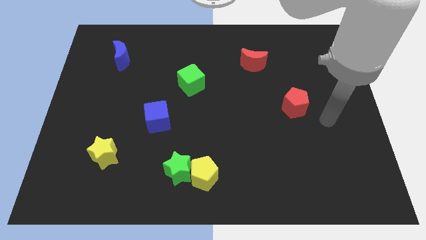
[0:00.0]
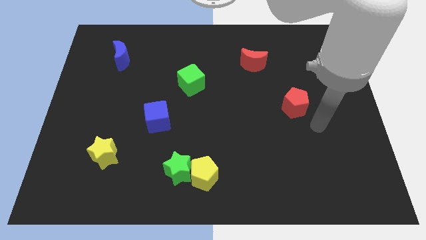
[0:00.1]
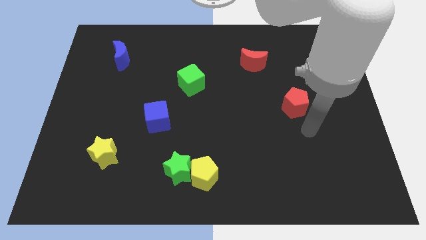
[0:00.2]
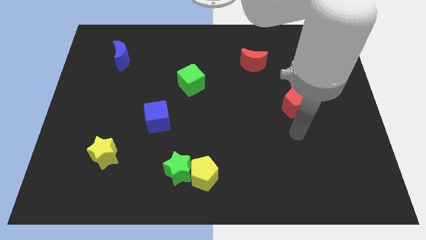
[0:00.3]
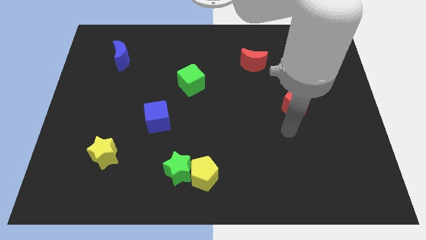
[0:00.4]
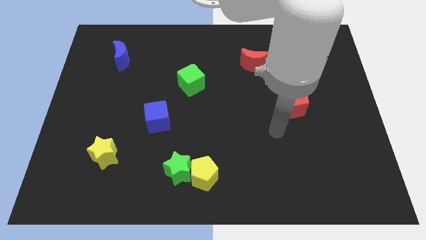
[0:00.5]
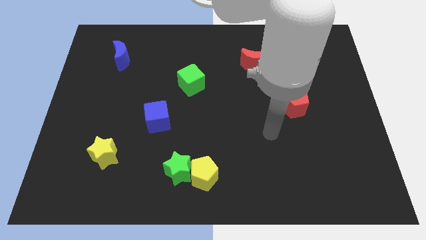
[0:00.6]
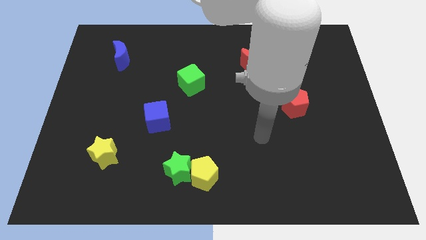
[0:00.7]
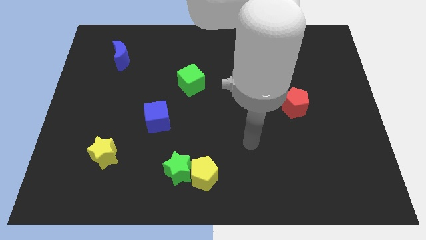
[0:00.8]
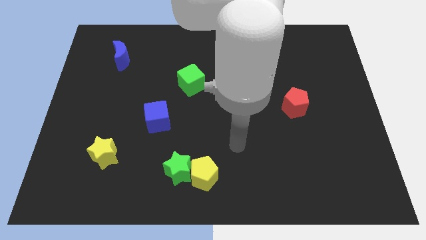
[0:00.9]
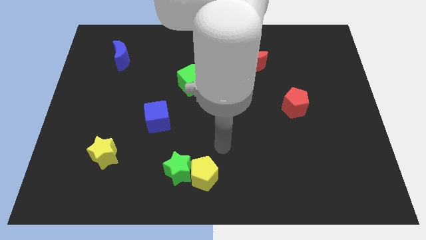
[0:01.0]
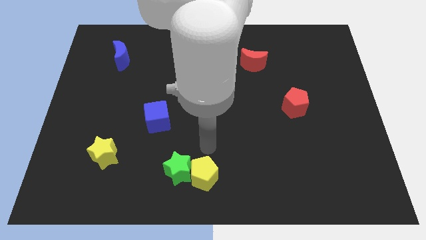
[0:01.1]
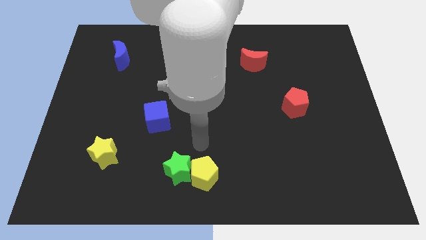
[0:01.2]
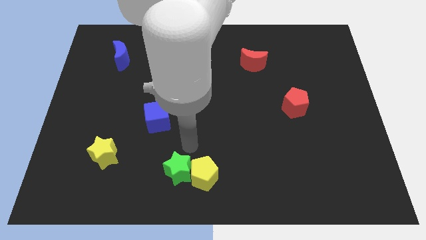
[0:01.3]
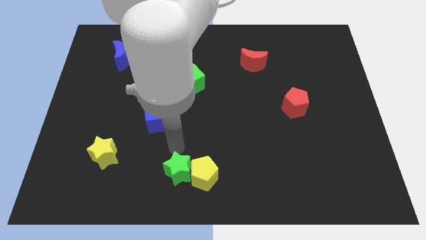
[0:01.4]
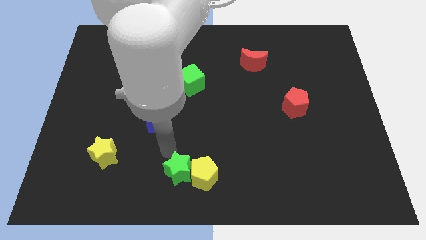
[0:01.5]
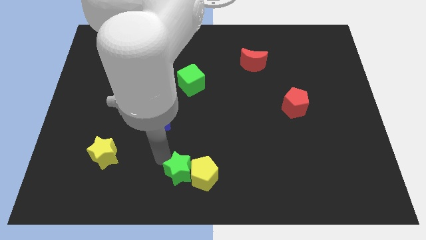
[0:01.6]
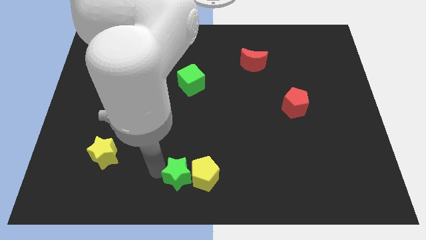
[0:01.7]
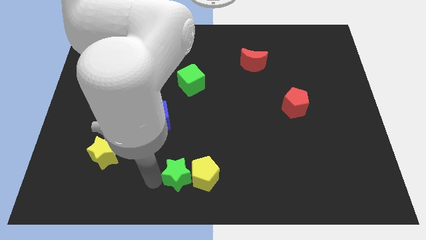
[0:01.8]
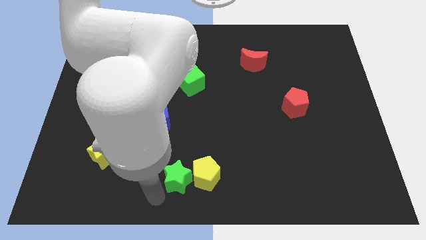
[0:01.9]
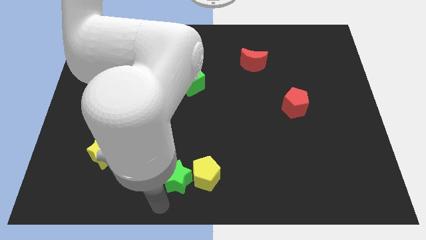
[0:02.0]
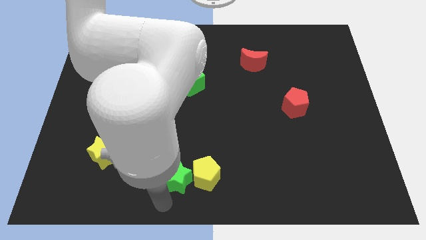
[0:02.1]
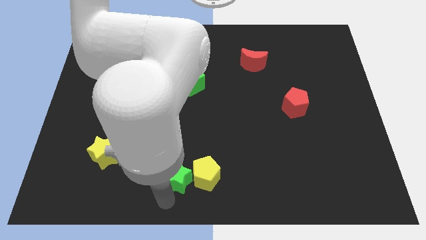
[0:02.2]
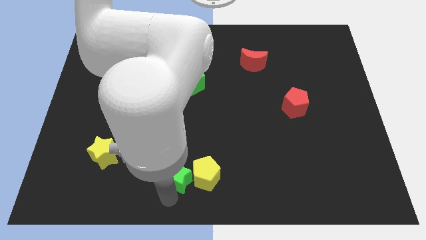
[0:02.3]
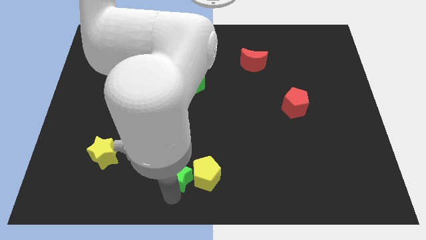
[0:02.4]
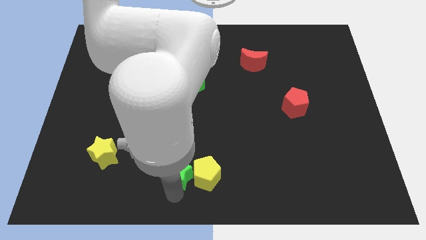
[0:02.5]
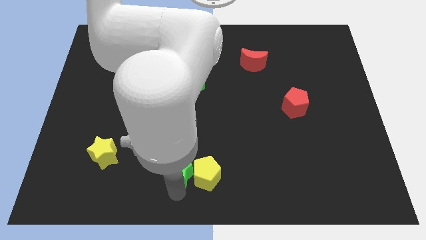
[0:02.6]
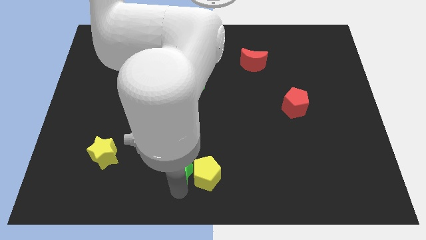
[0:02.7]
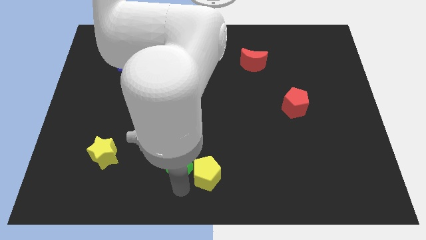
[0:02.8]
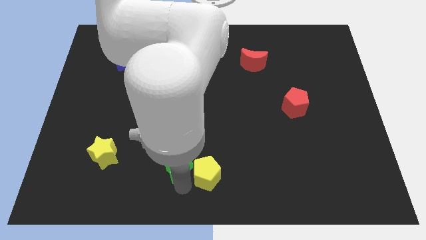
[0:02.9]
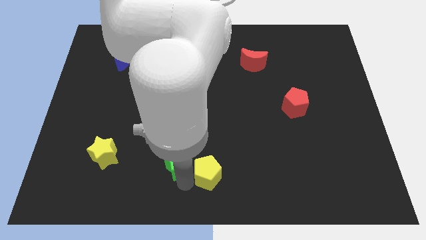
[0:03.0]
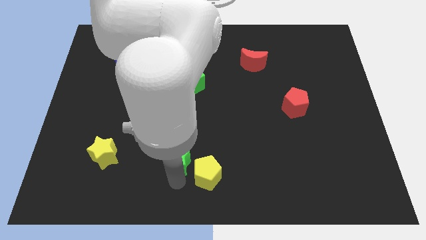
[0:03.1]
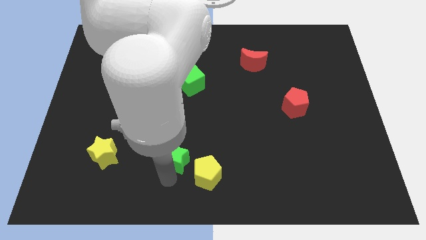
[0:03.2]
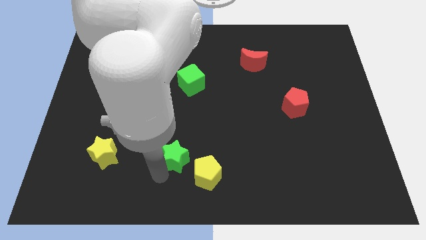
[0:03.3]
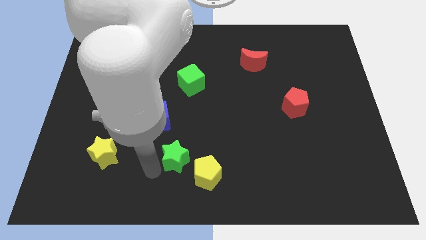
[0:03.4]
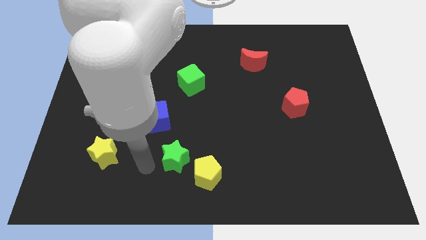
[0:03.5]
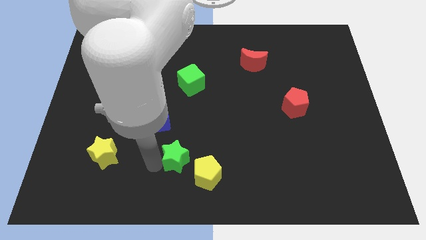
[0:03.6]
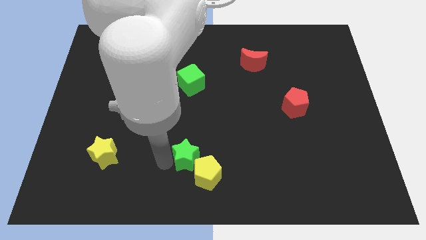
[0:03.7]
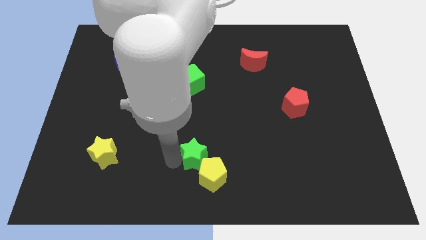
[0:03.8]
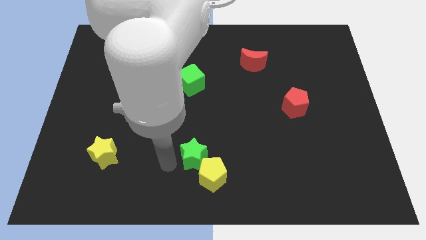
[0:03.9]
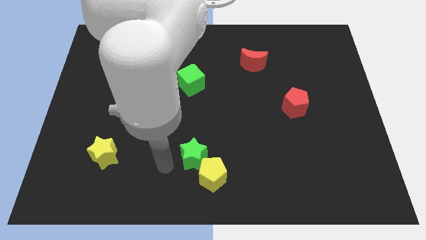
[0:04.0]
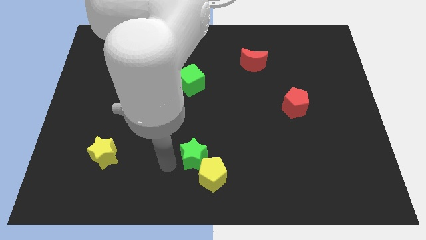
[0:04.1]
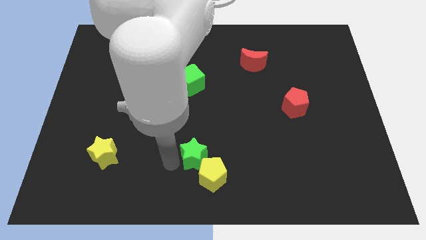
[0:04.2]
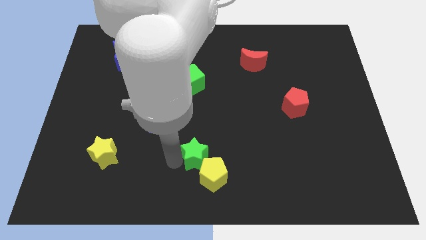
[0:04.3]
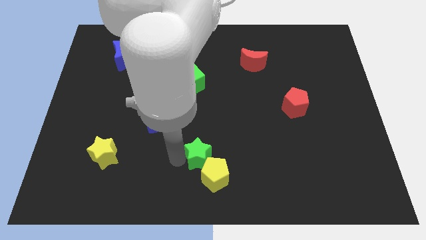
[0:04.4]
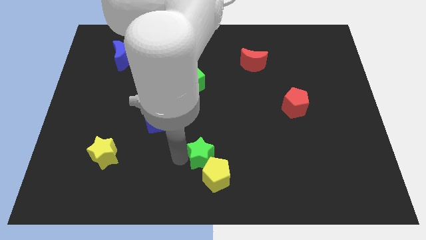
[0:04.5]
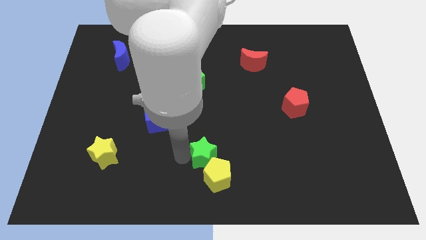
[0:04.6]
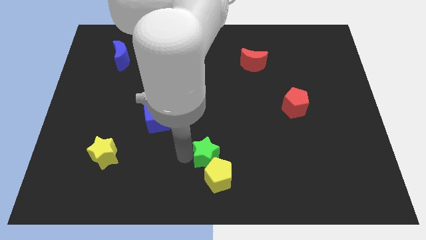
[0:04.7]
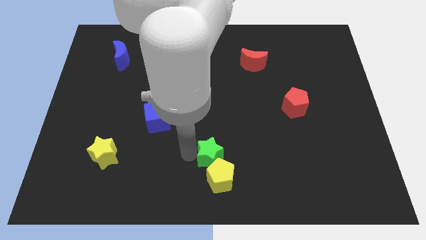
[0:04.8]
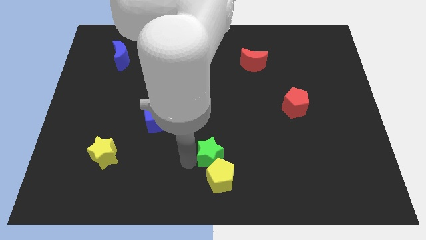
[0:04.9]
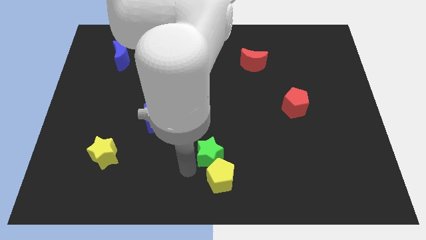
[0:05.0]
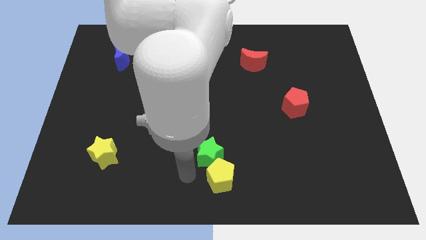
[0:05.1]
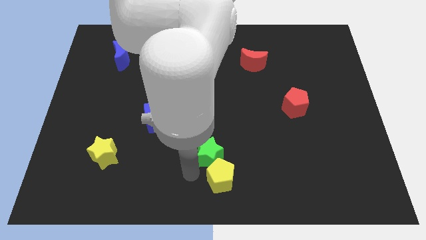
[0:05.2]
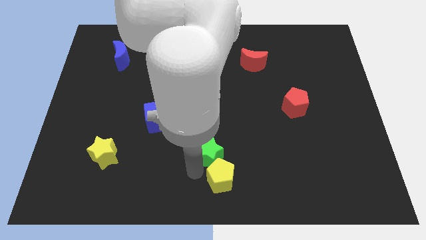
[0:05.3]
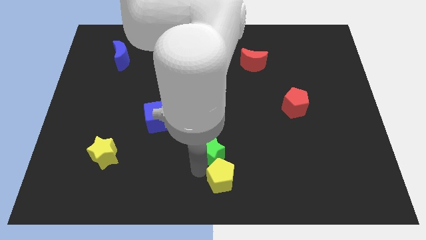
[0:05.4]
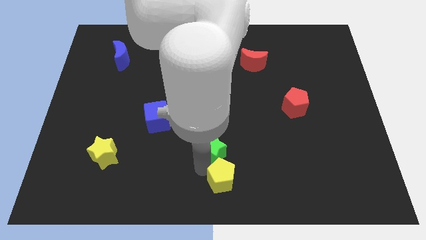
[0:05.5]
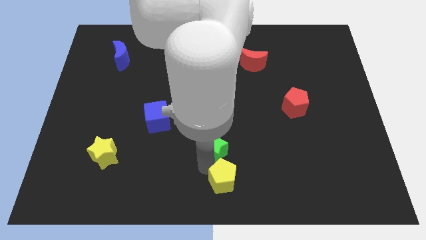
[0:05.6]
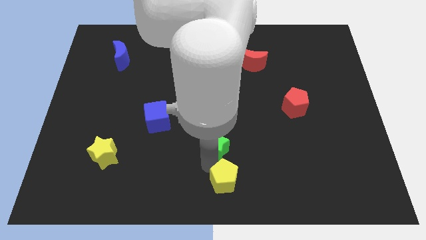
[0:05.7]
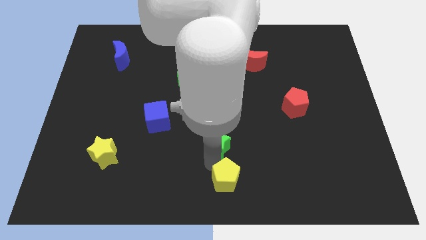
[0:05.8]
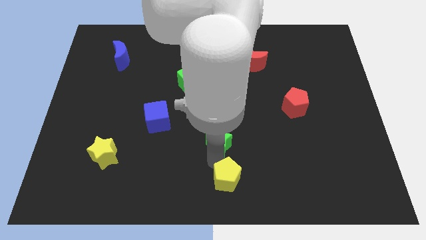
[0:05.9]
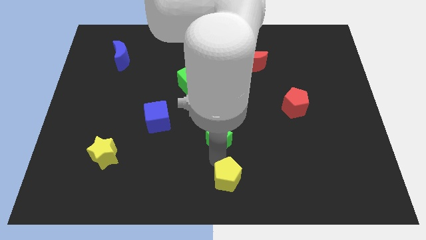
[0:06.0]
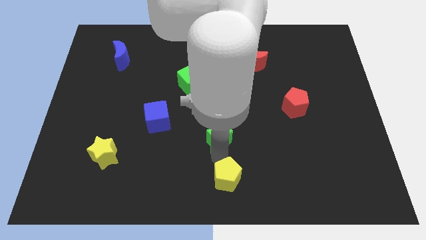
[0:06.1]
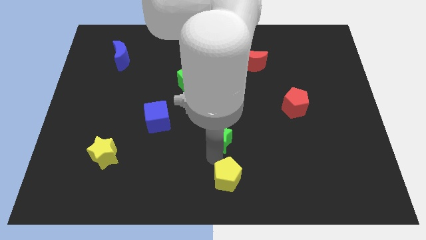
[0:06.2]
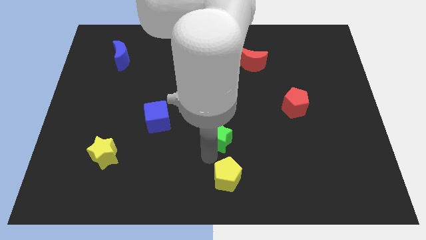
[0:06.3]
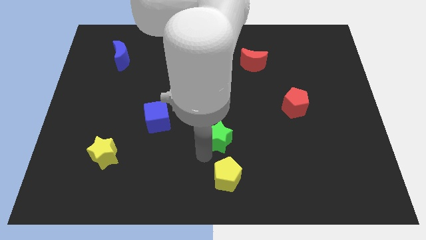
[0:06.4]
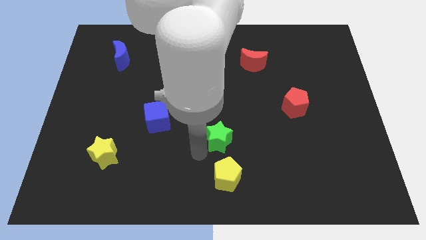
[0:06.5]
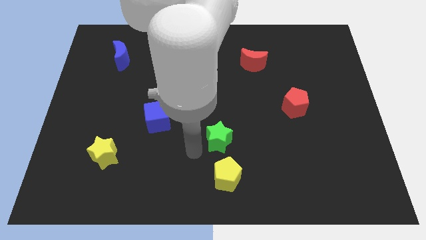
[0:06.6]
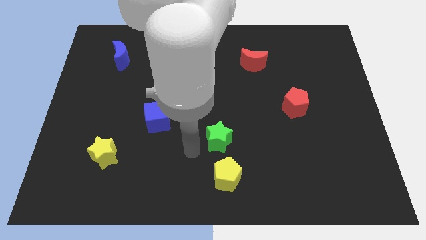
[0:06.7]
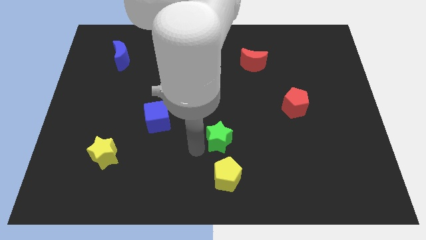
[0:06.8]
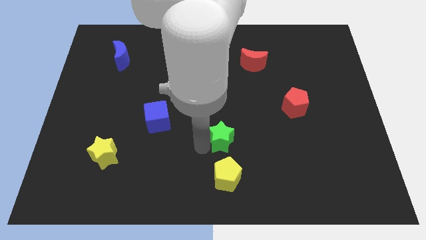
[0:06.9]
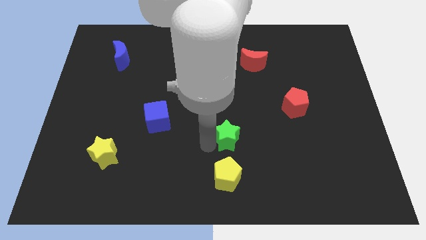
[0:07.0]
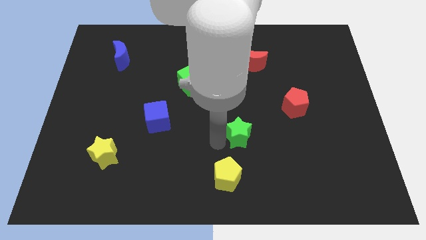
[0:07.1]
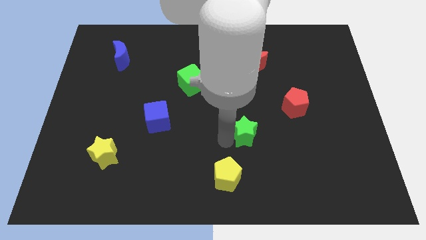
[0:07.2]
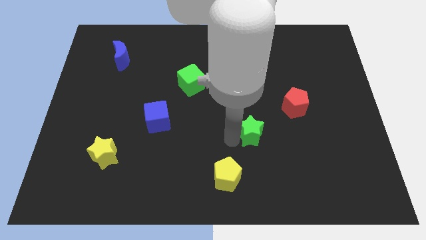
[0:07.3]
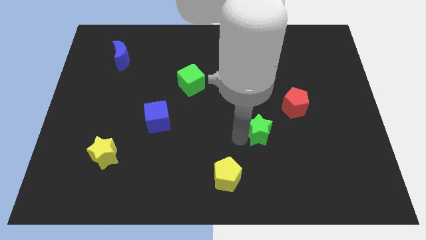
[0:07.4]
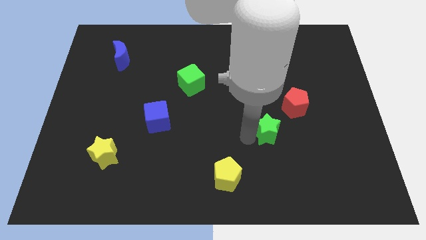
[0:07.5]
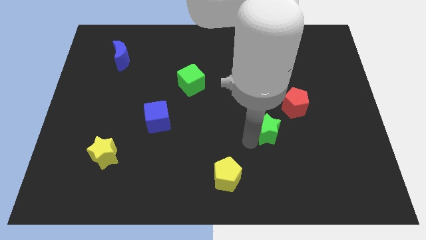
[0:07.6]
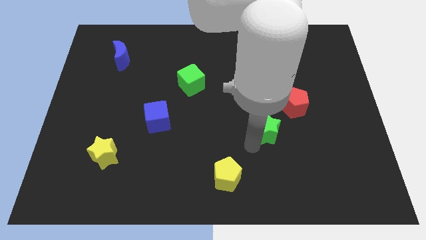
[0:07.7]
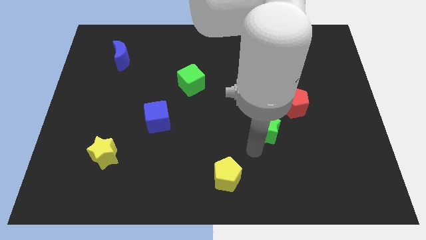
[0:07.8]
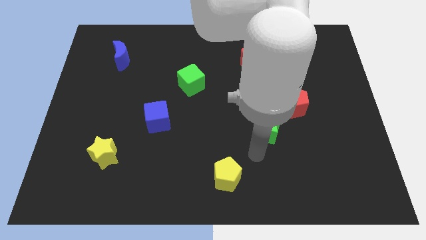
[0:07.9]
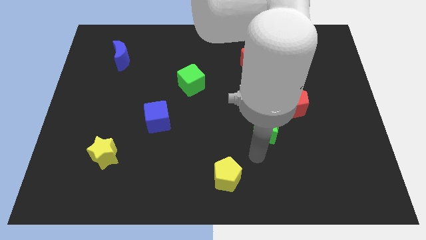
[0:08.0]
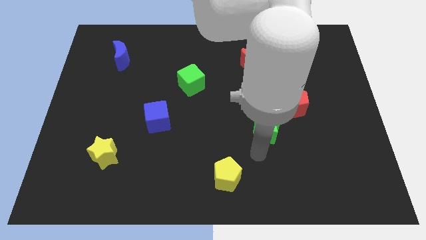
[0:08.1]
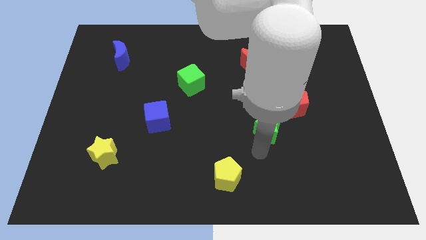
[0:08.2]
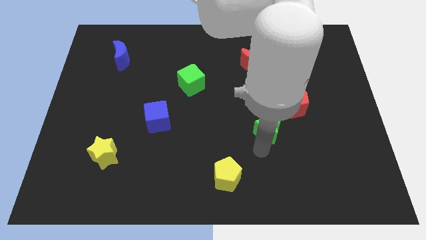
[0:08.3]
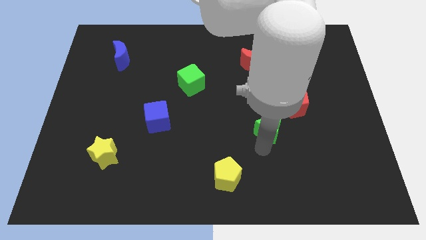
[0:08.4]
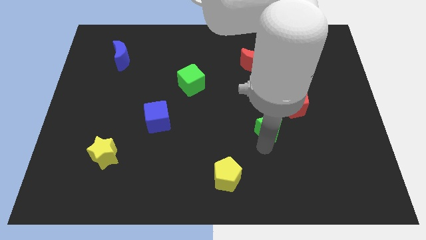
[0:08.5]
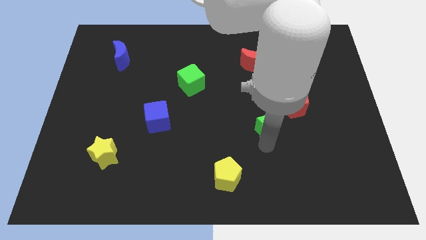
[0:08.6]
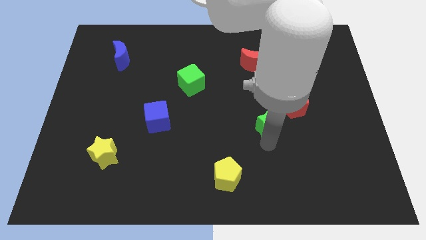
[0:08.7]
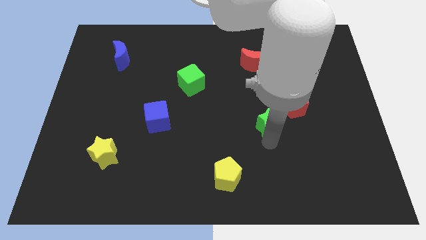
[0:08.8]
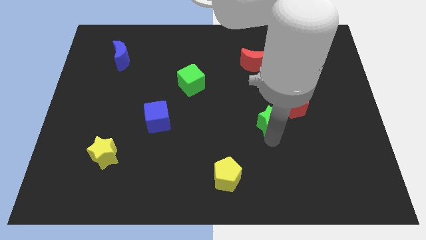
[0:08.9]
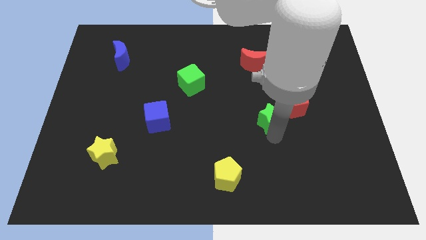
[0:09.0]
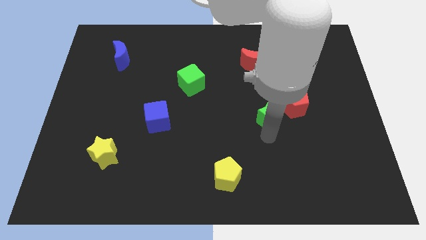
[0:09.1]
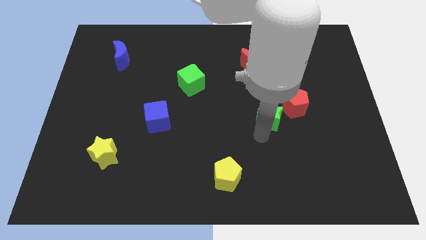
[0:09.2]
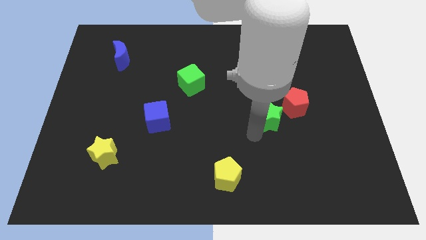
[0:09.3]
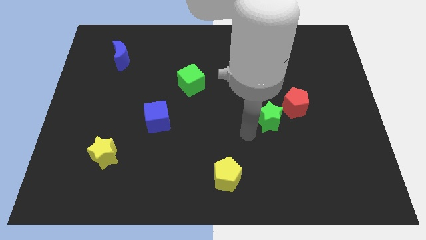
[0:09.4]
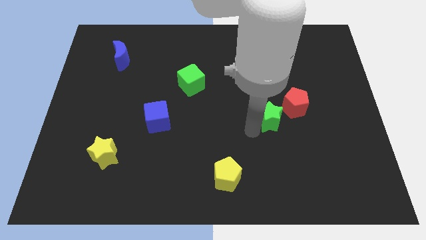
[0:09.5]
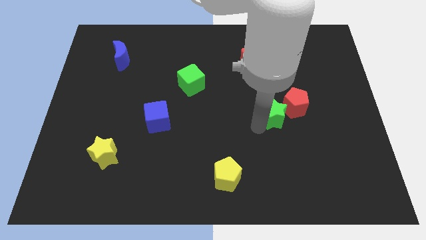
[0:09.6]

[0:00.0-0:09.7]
move the green star close to the red pentagon
